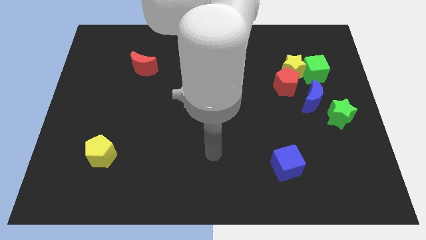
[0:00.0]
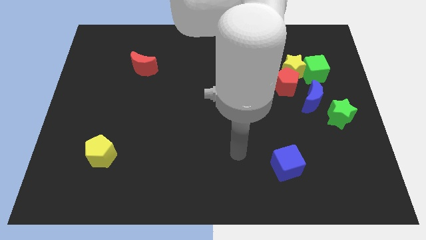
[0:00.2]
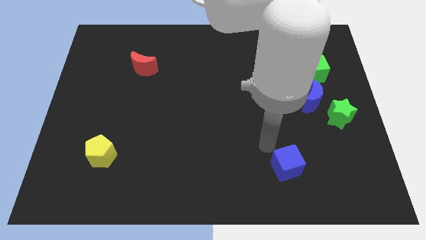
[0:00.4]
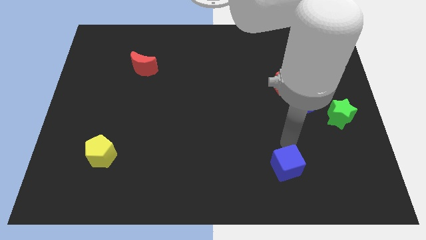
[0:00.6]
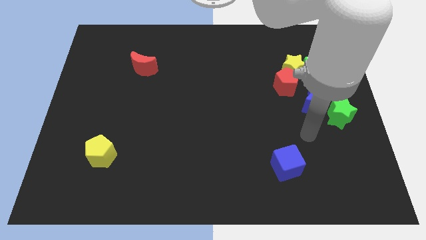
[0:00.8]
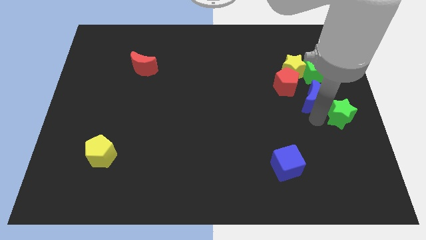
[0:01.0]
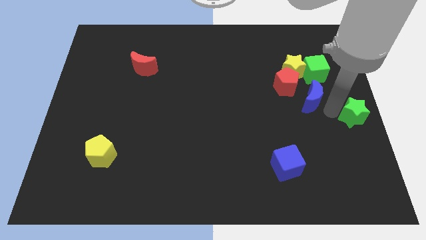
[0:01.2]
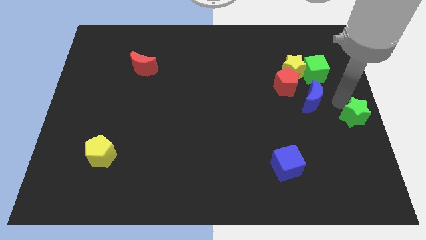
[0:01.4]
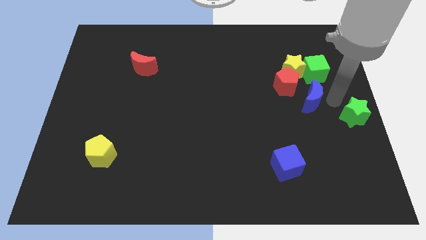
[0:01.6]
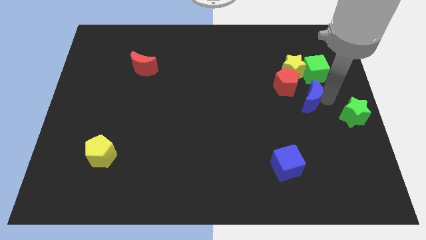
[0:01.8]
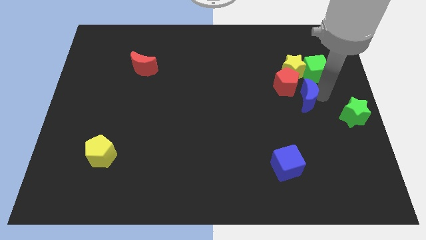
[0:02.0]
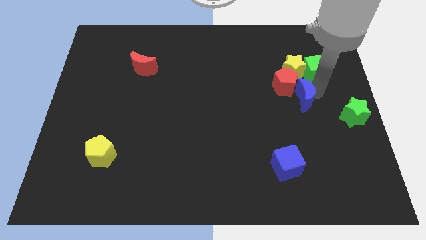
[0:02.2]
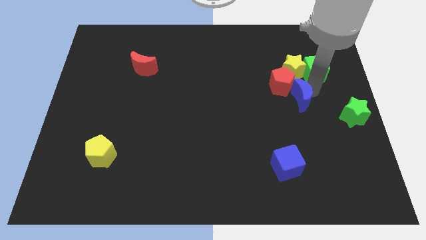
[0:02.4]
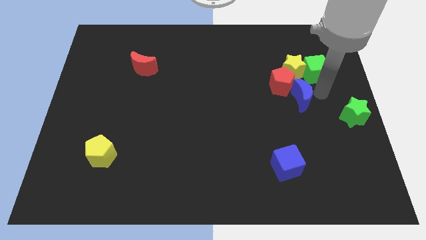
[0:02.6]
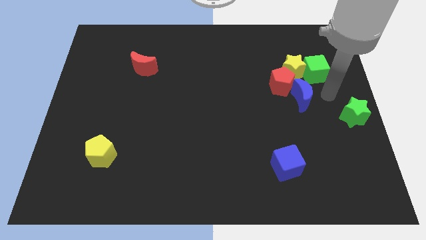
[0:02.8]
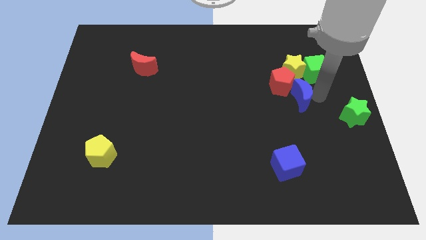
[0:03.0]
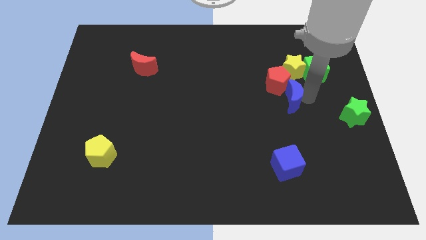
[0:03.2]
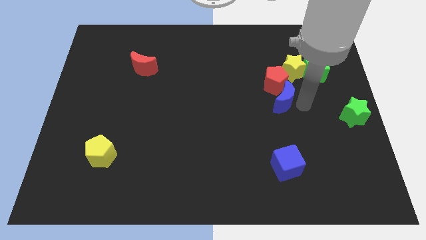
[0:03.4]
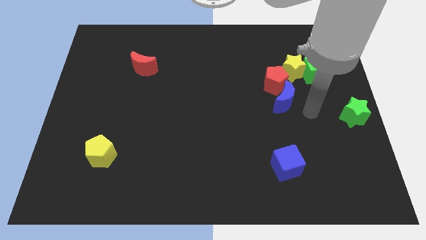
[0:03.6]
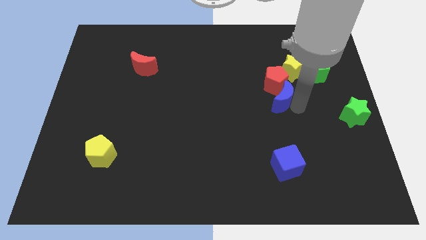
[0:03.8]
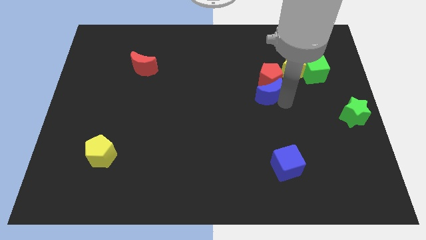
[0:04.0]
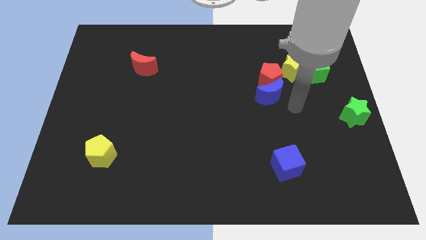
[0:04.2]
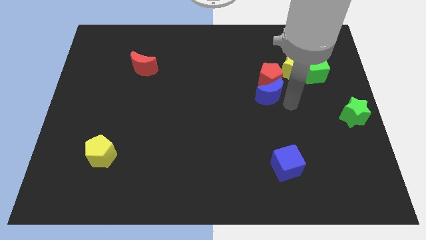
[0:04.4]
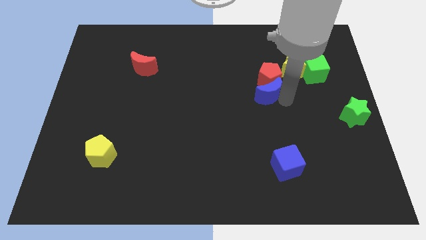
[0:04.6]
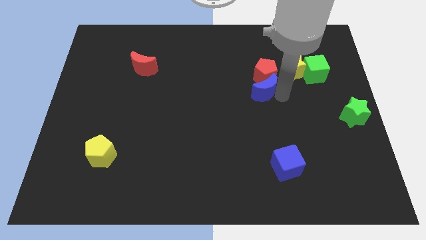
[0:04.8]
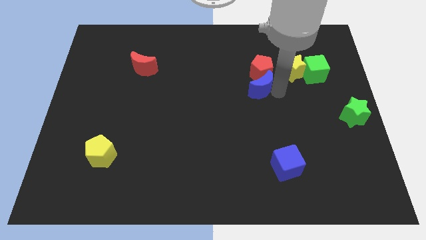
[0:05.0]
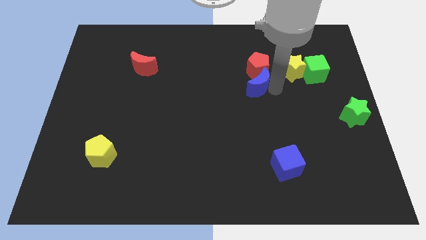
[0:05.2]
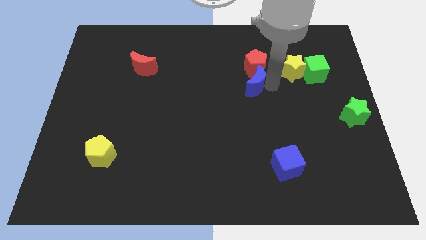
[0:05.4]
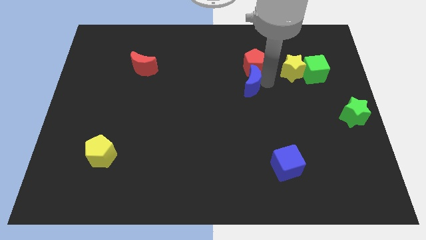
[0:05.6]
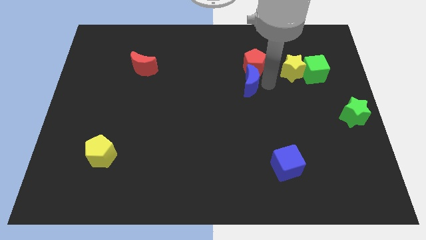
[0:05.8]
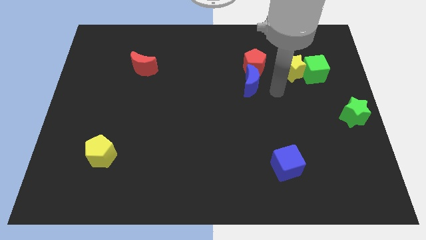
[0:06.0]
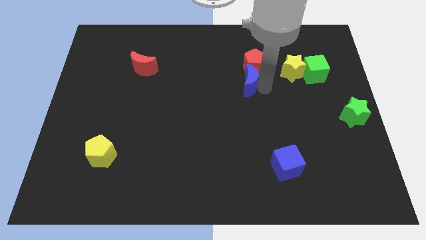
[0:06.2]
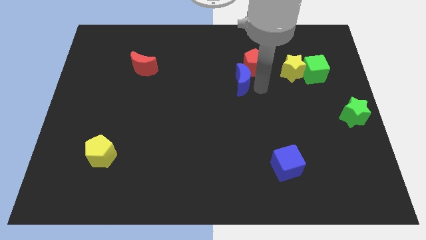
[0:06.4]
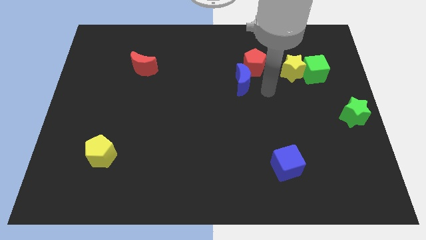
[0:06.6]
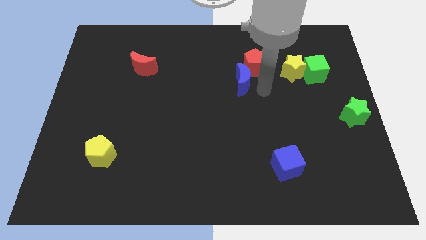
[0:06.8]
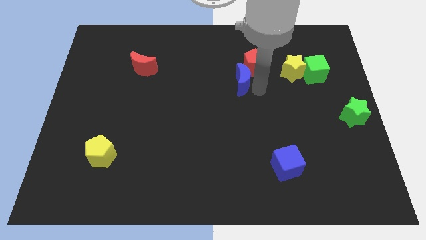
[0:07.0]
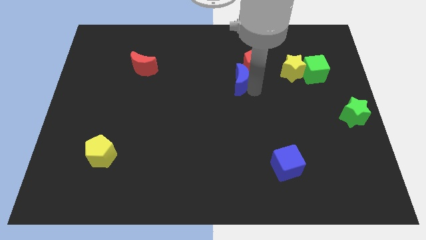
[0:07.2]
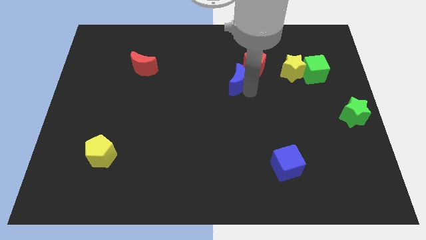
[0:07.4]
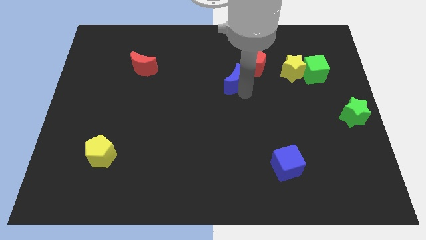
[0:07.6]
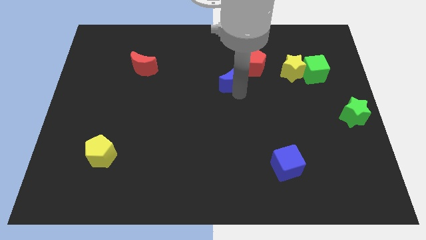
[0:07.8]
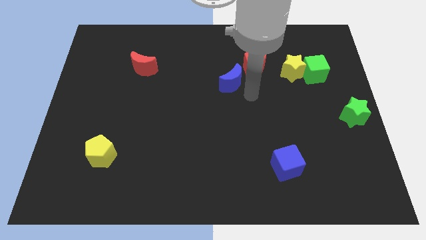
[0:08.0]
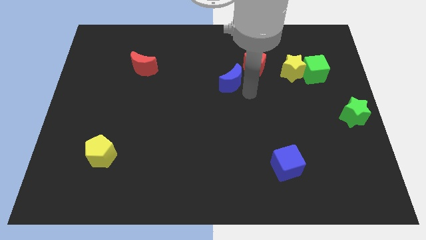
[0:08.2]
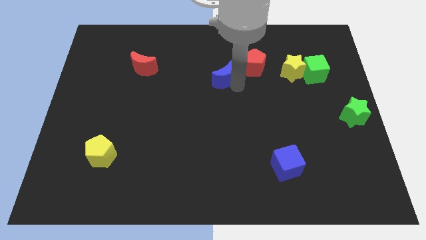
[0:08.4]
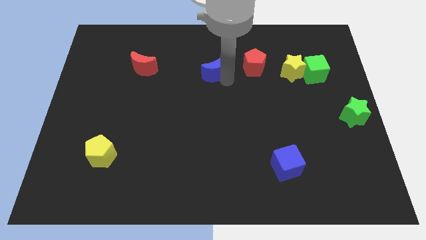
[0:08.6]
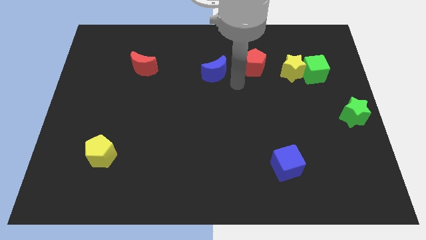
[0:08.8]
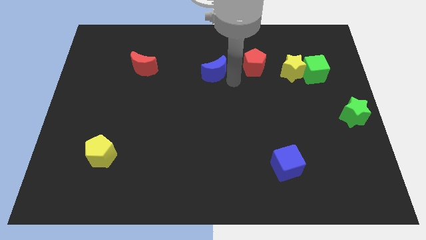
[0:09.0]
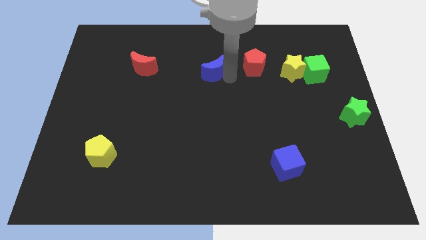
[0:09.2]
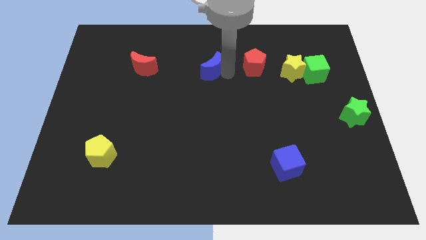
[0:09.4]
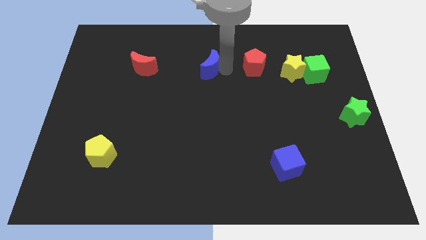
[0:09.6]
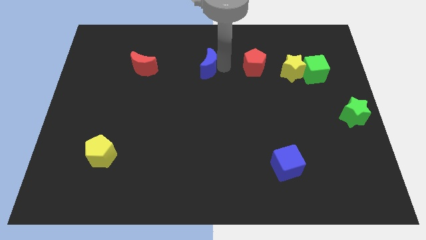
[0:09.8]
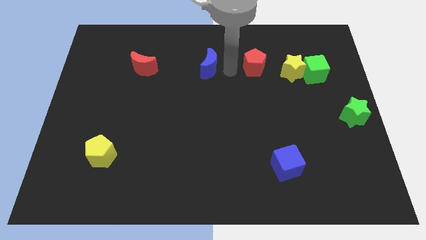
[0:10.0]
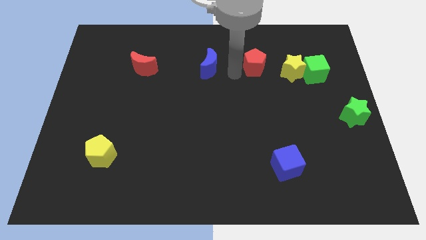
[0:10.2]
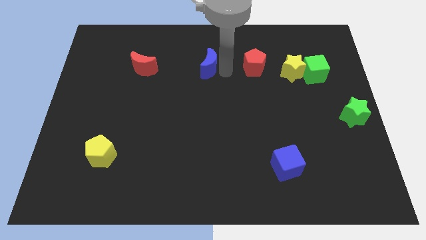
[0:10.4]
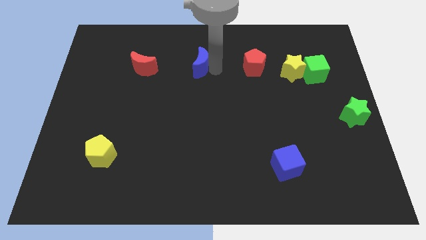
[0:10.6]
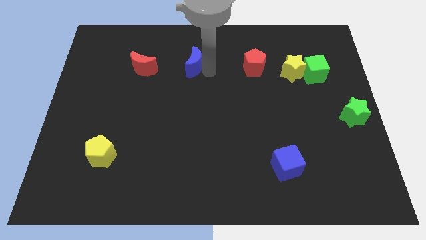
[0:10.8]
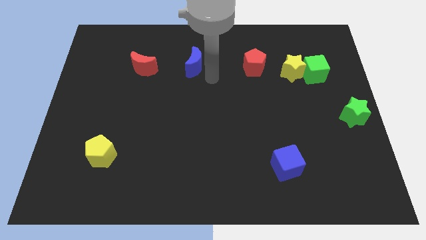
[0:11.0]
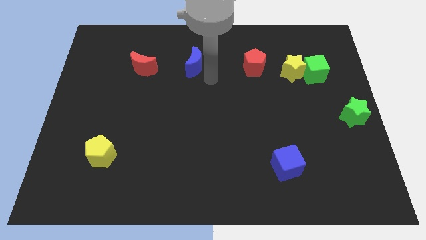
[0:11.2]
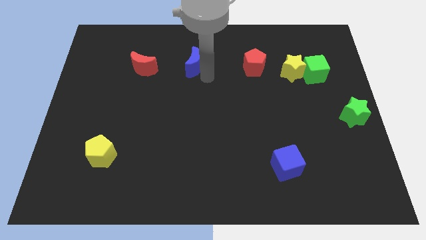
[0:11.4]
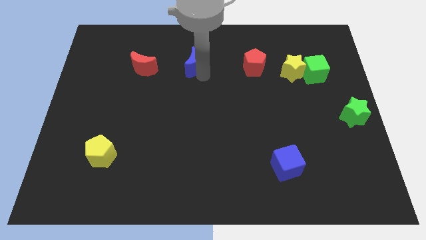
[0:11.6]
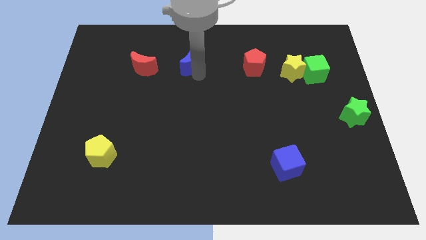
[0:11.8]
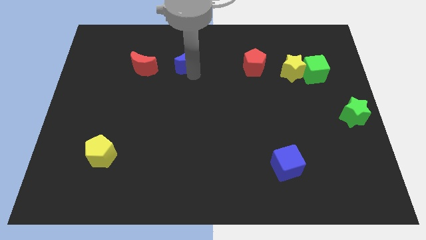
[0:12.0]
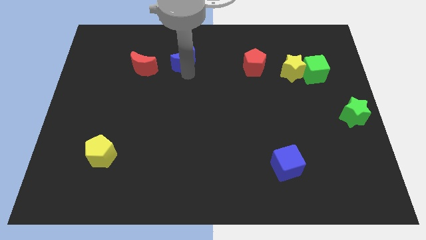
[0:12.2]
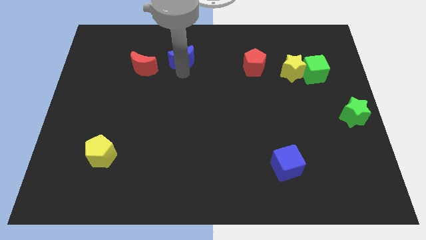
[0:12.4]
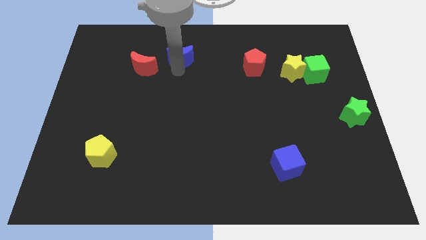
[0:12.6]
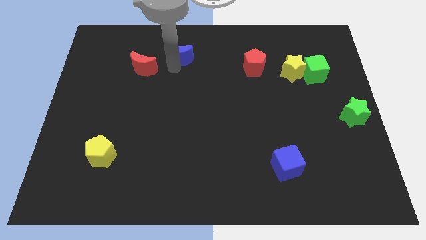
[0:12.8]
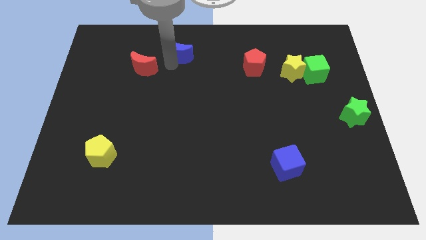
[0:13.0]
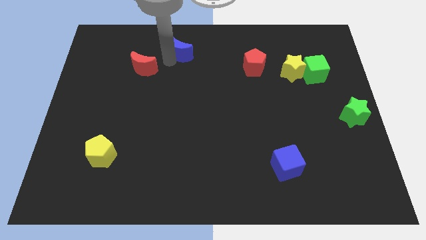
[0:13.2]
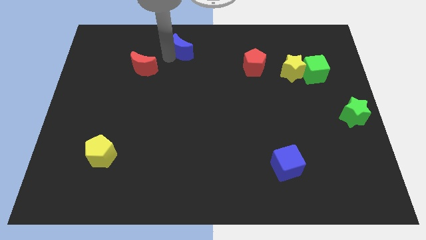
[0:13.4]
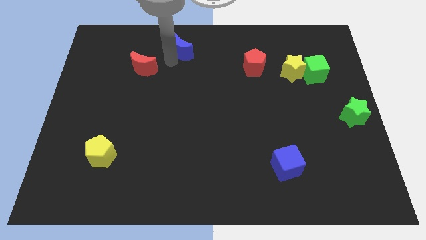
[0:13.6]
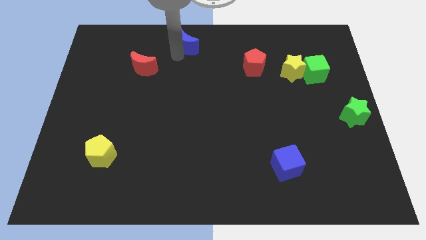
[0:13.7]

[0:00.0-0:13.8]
move the blue moon to the top side

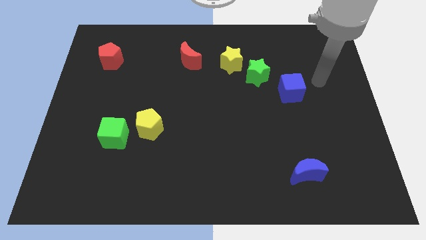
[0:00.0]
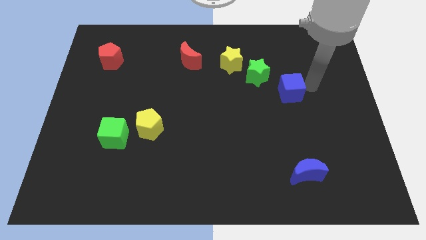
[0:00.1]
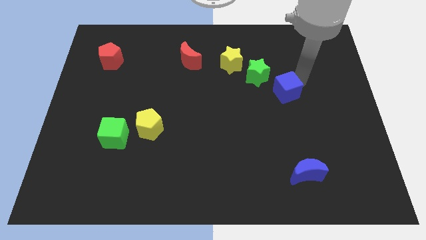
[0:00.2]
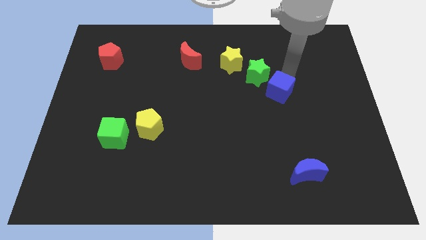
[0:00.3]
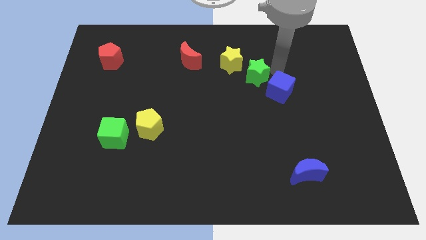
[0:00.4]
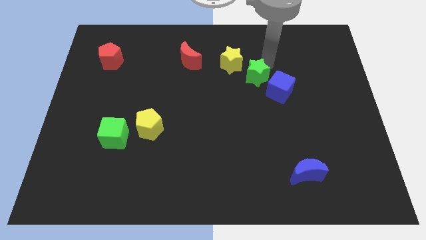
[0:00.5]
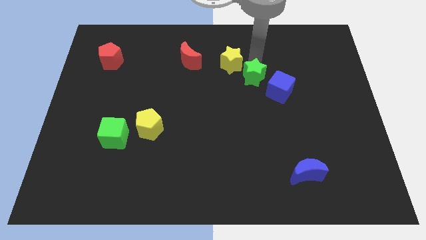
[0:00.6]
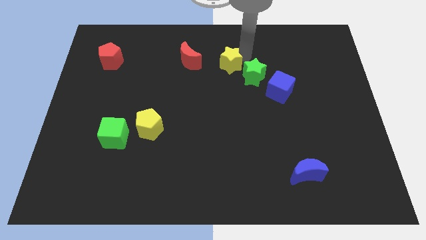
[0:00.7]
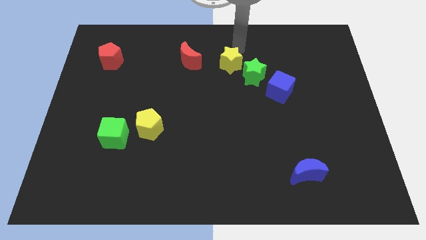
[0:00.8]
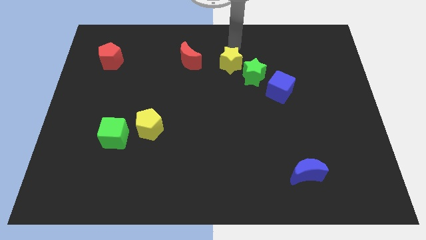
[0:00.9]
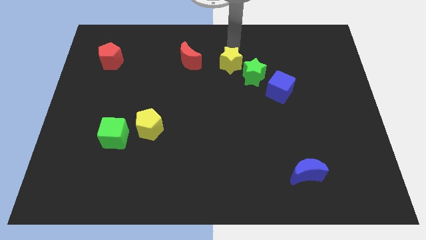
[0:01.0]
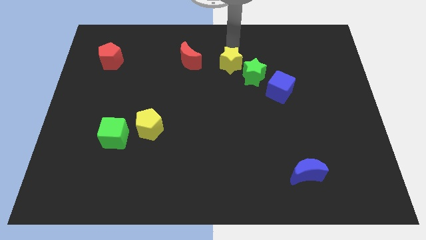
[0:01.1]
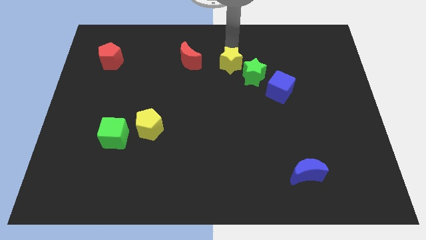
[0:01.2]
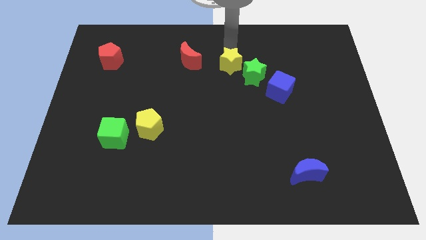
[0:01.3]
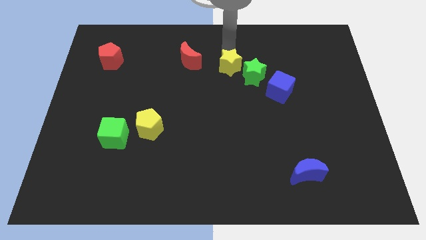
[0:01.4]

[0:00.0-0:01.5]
slide the yellow star to the middle of the board
